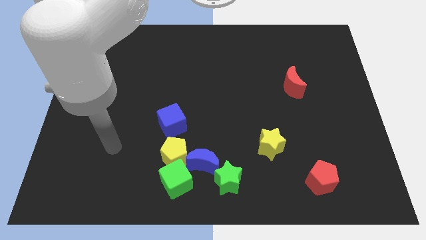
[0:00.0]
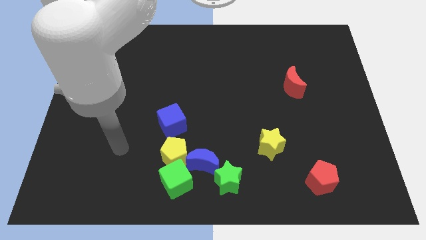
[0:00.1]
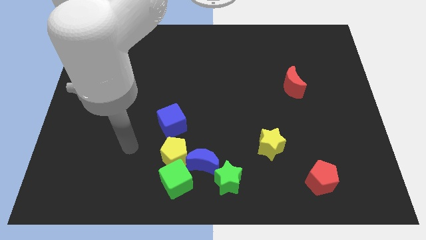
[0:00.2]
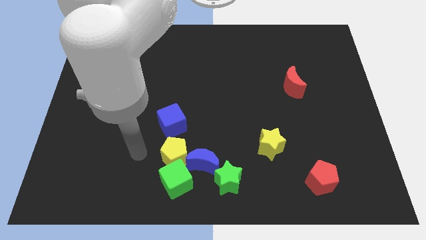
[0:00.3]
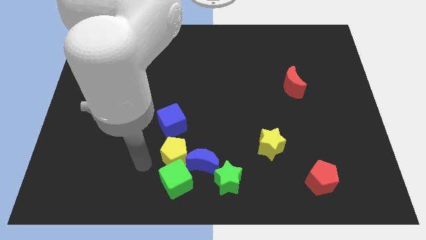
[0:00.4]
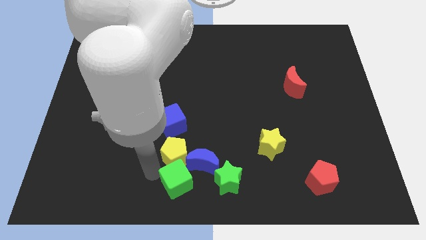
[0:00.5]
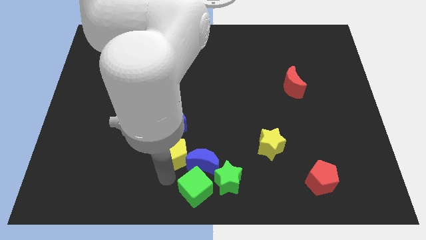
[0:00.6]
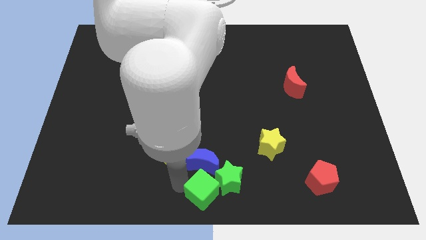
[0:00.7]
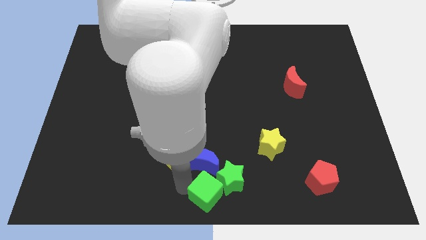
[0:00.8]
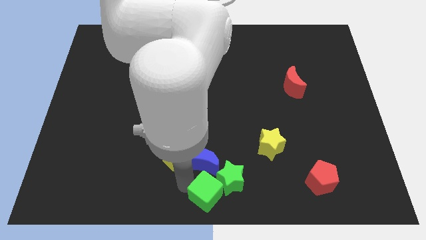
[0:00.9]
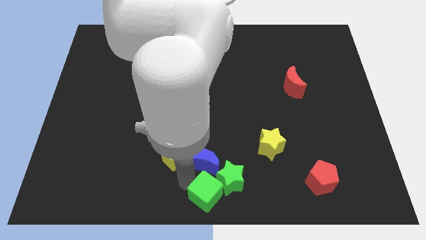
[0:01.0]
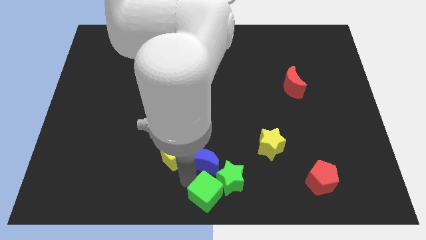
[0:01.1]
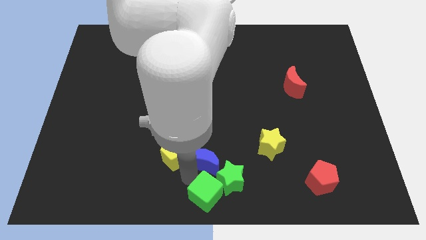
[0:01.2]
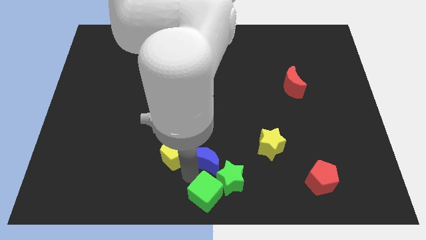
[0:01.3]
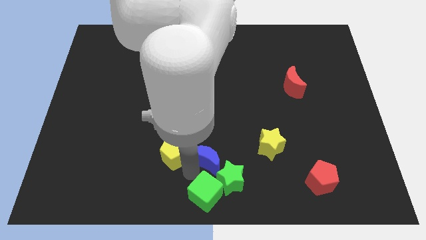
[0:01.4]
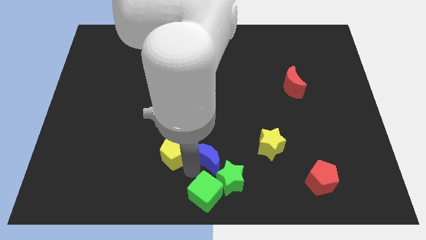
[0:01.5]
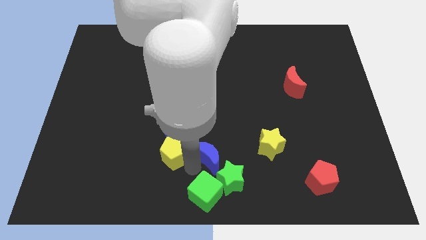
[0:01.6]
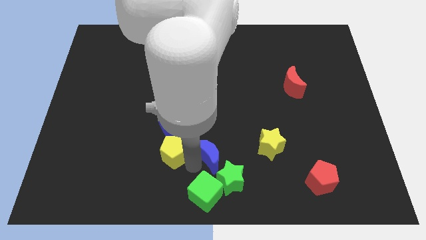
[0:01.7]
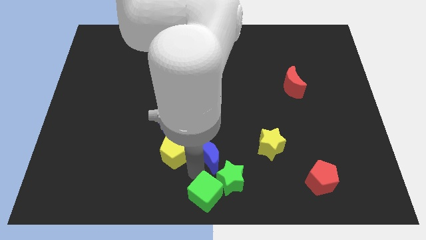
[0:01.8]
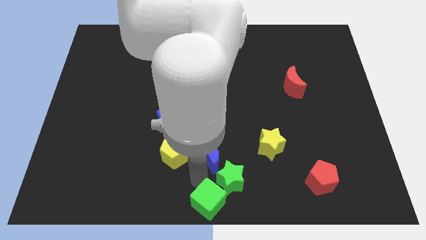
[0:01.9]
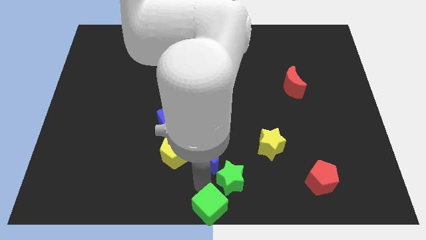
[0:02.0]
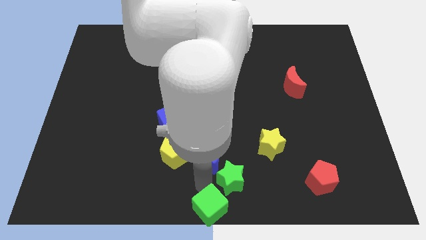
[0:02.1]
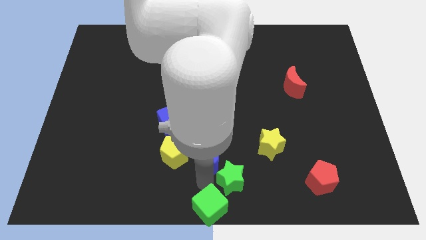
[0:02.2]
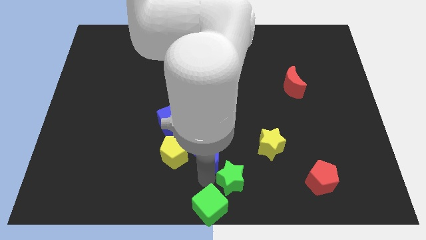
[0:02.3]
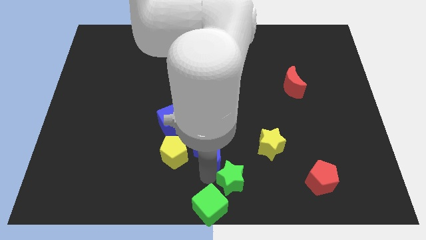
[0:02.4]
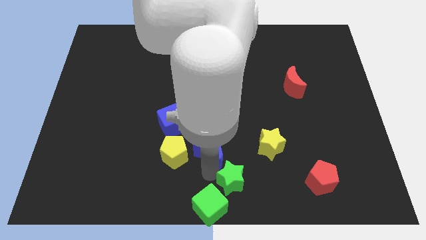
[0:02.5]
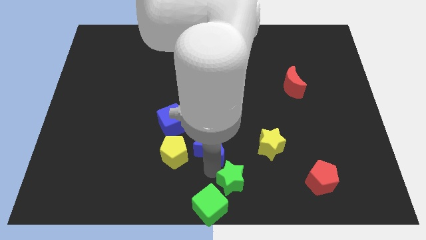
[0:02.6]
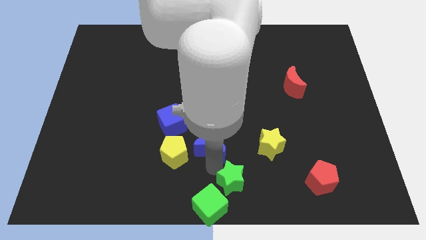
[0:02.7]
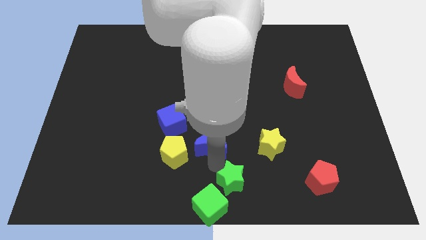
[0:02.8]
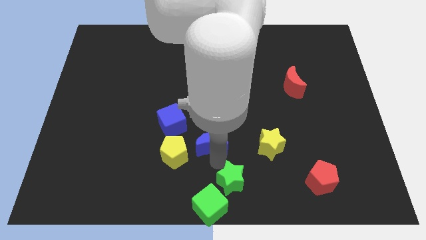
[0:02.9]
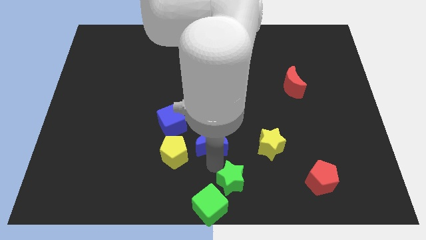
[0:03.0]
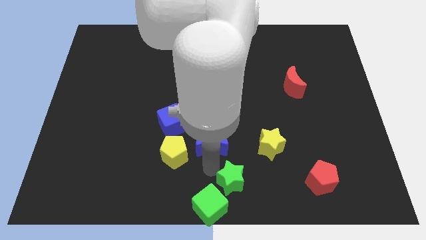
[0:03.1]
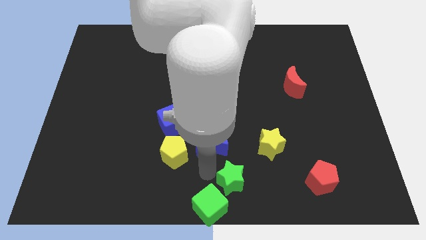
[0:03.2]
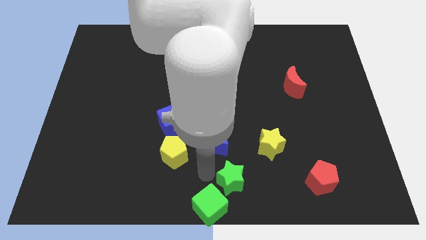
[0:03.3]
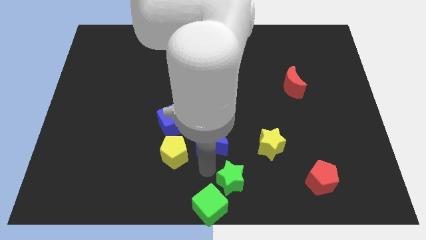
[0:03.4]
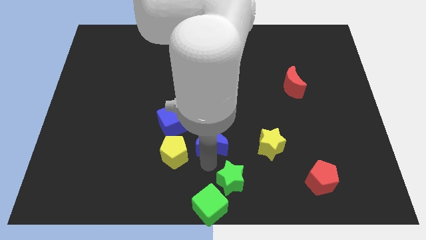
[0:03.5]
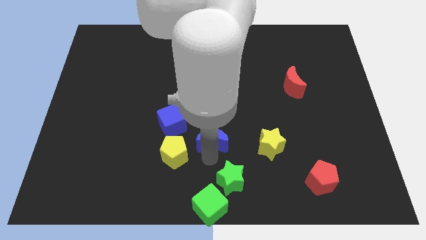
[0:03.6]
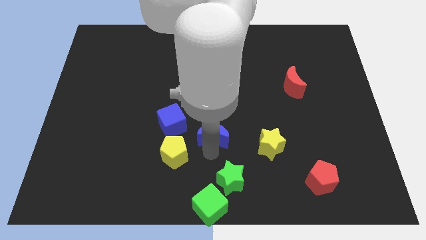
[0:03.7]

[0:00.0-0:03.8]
move the blue moon away from the green star, yellow pentagon, and green cube

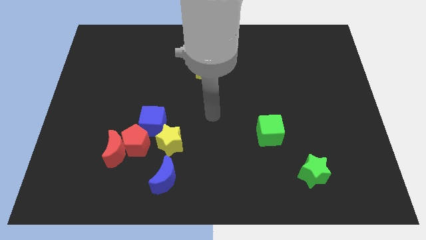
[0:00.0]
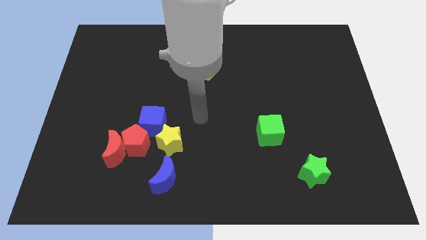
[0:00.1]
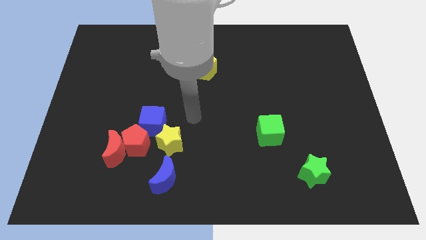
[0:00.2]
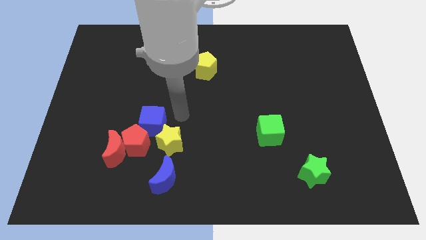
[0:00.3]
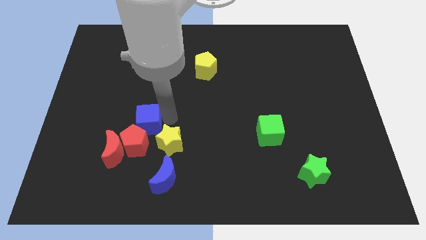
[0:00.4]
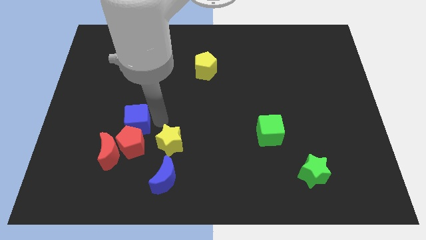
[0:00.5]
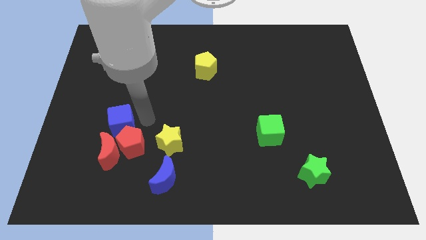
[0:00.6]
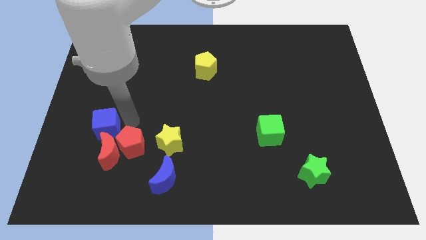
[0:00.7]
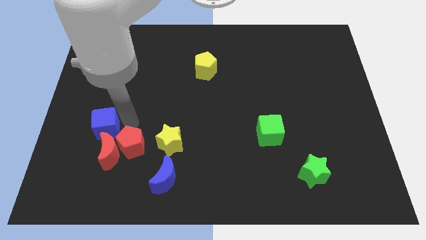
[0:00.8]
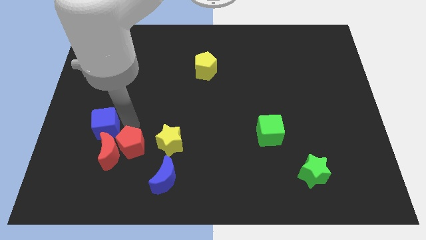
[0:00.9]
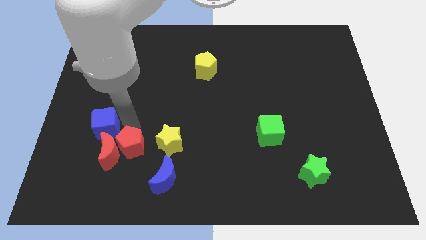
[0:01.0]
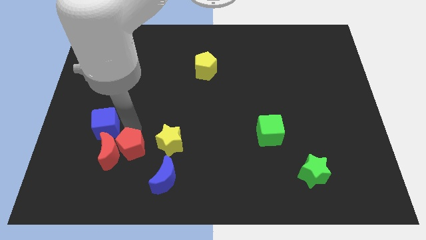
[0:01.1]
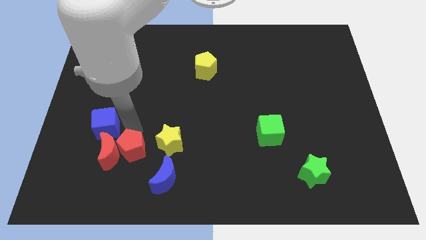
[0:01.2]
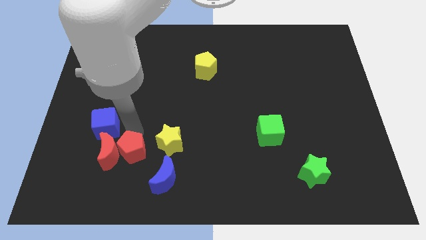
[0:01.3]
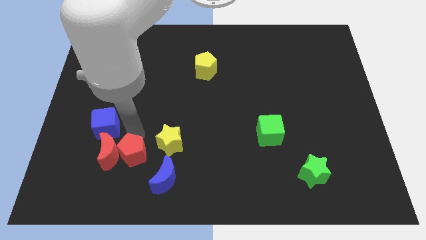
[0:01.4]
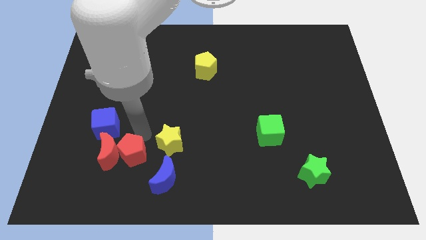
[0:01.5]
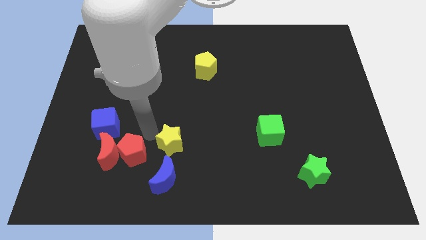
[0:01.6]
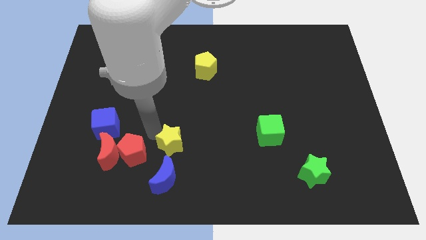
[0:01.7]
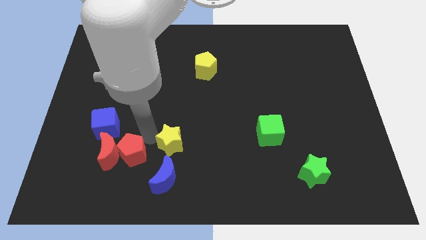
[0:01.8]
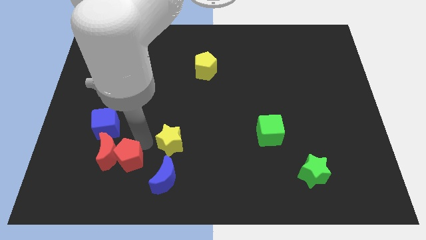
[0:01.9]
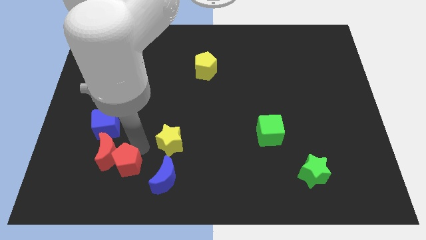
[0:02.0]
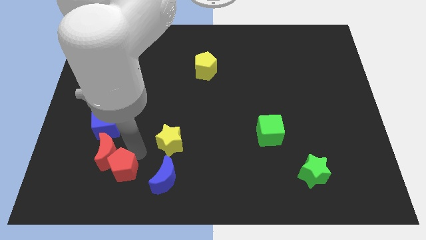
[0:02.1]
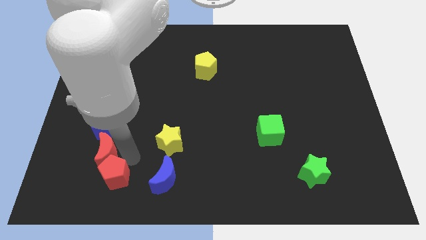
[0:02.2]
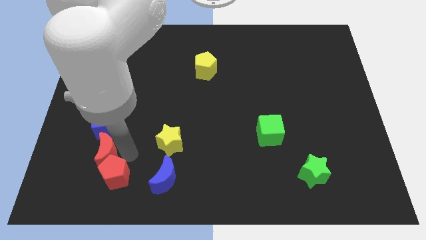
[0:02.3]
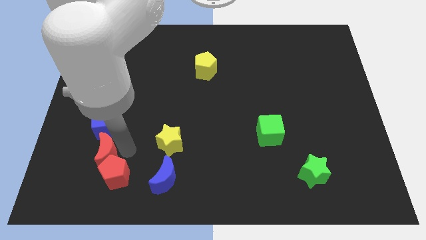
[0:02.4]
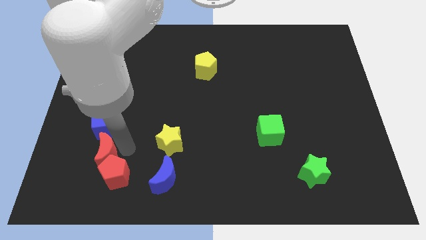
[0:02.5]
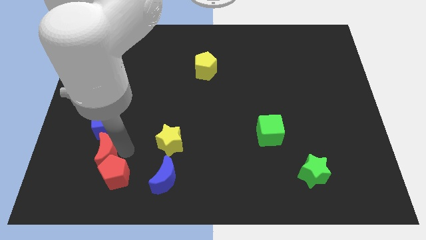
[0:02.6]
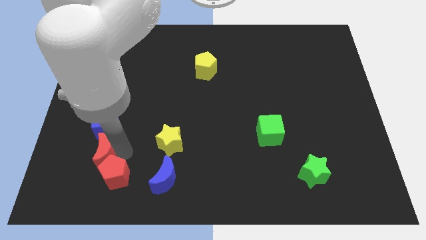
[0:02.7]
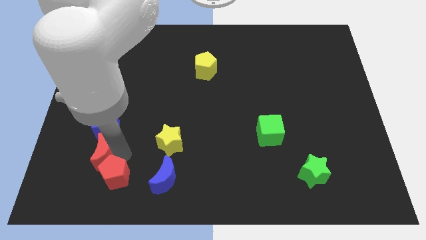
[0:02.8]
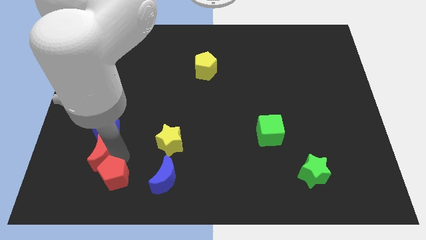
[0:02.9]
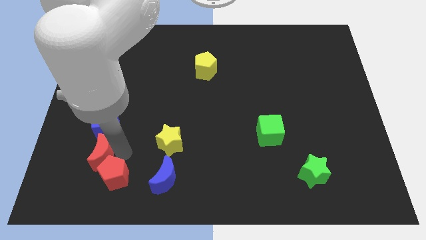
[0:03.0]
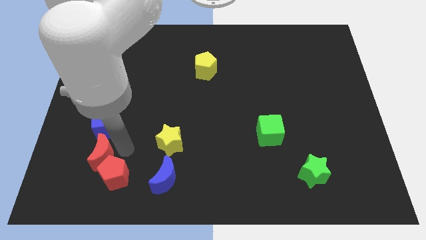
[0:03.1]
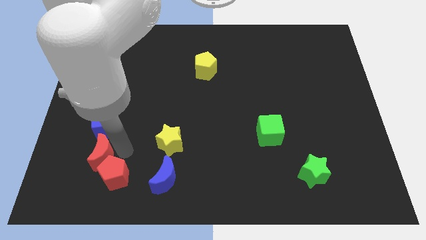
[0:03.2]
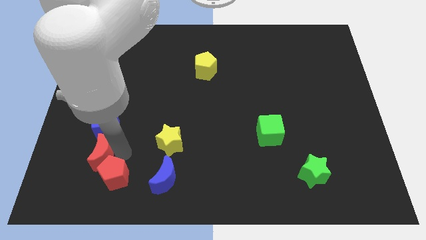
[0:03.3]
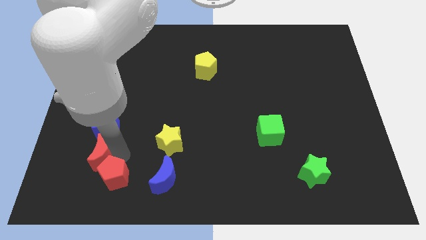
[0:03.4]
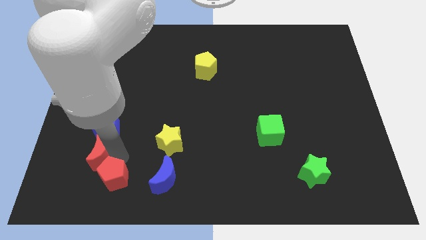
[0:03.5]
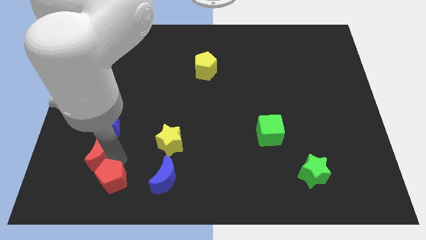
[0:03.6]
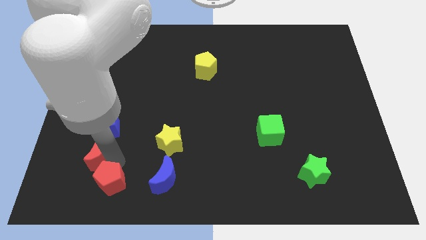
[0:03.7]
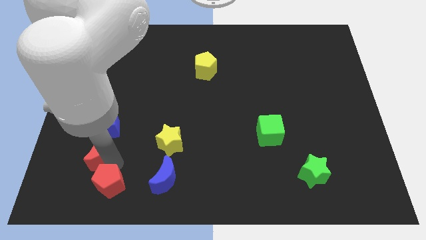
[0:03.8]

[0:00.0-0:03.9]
separate the red pentagon from the red moon, blue cube, and yellow star

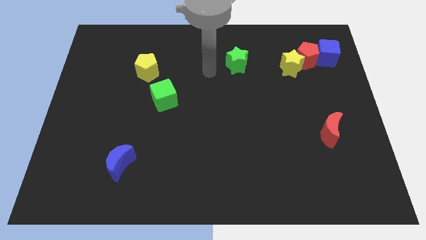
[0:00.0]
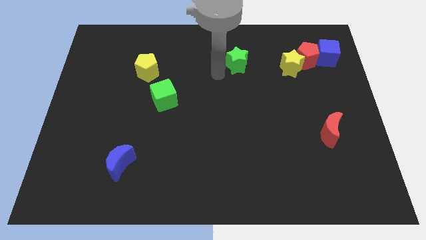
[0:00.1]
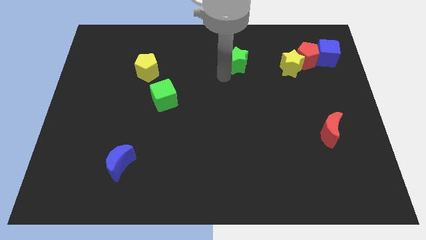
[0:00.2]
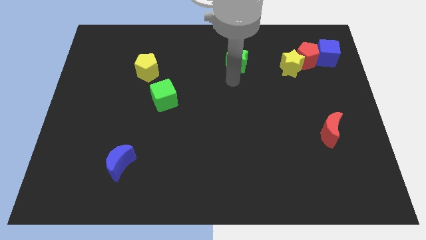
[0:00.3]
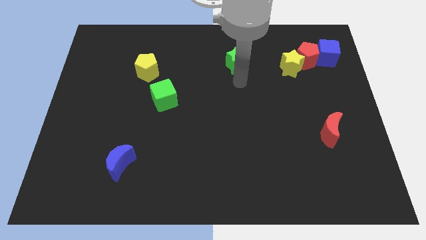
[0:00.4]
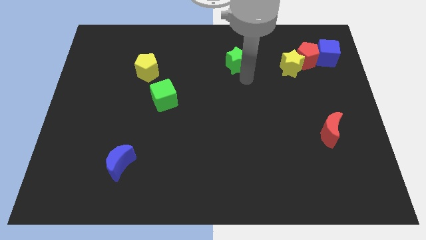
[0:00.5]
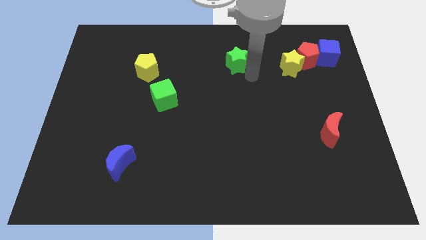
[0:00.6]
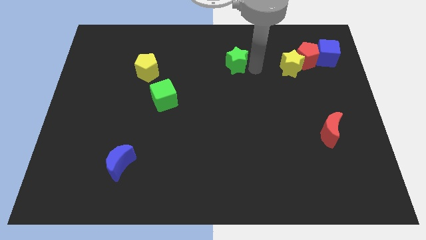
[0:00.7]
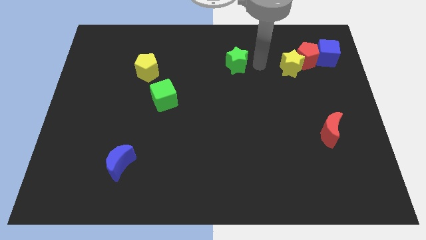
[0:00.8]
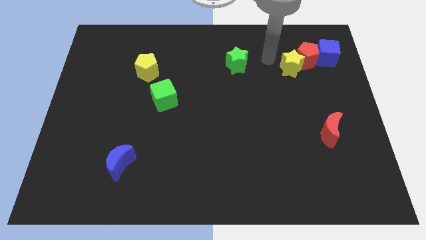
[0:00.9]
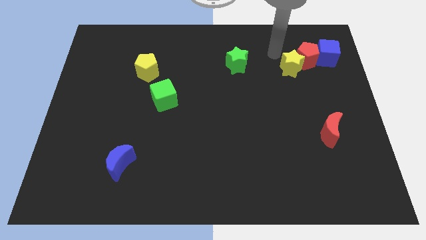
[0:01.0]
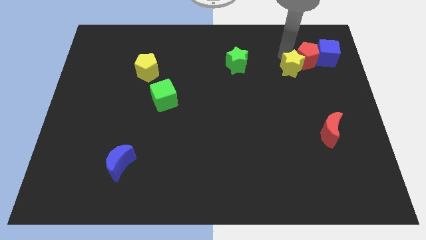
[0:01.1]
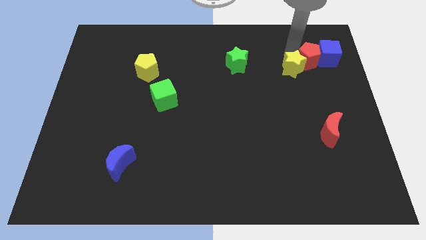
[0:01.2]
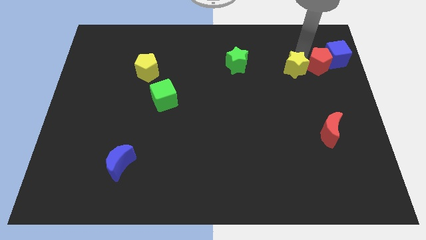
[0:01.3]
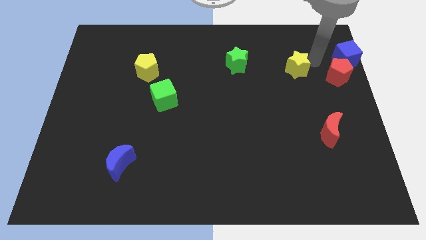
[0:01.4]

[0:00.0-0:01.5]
move the yellow star away from the red pentagon
